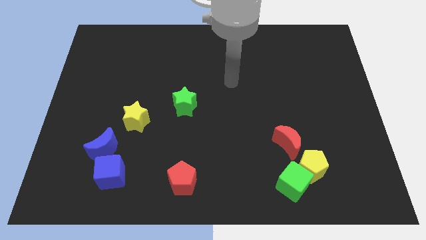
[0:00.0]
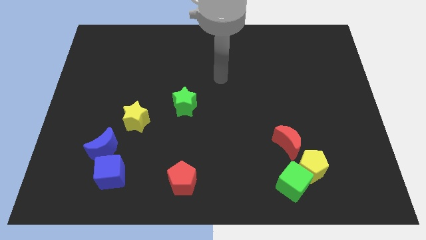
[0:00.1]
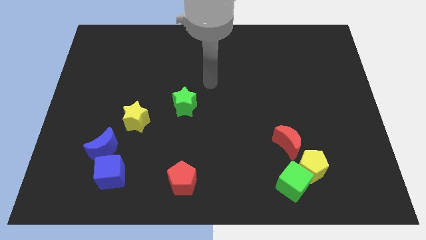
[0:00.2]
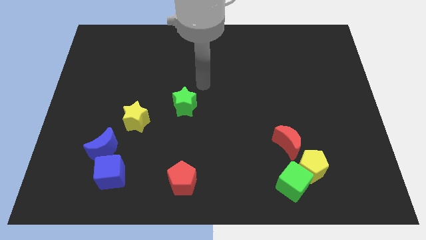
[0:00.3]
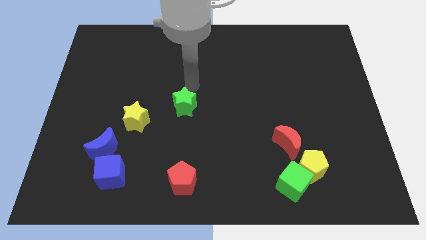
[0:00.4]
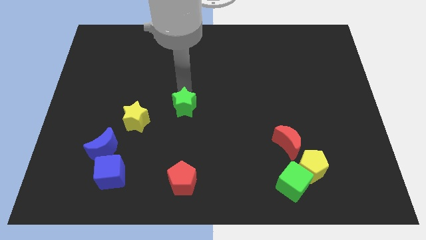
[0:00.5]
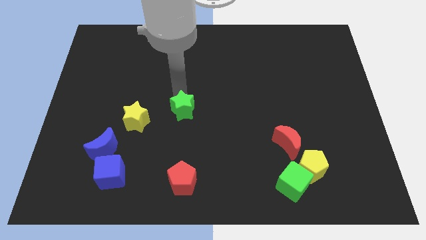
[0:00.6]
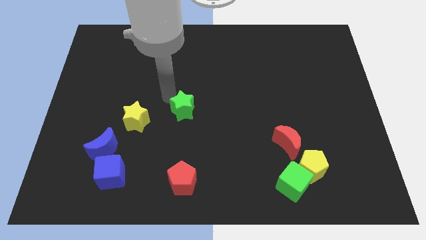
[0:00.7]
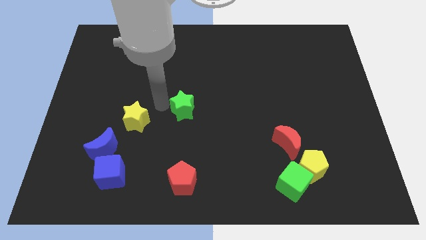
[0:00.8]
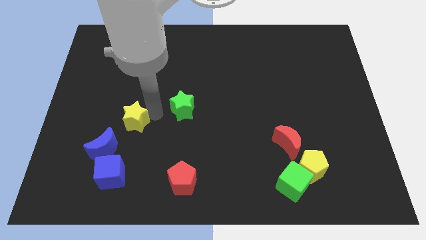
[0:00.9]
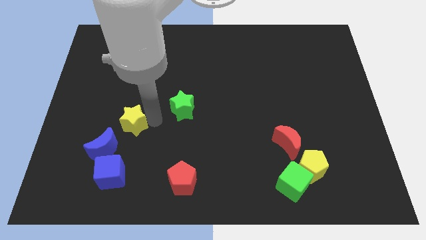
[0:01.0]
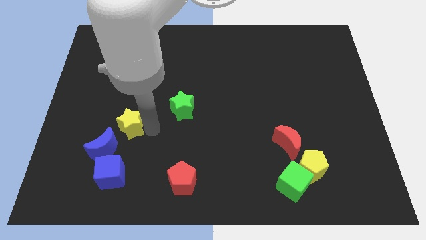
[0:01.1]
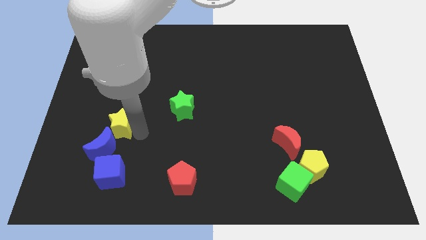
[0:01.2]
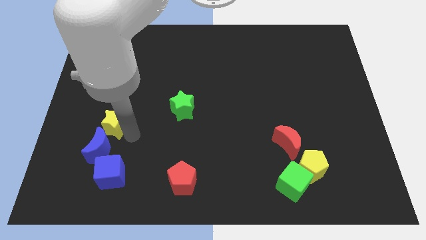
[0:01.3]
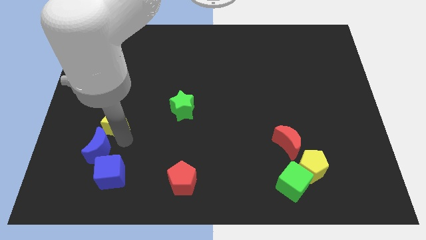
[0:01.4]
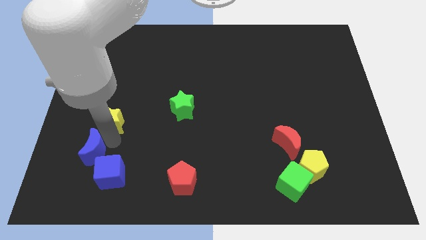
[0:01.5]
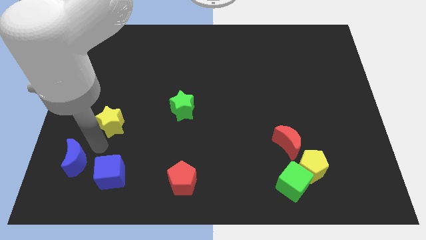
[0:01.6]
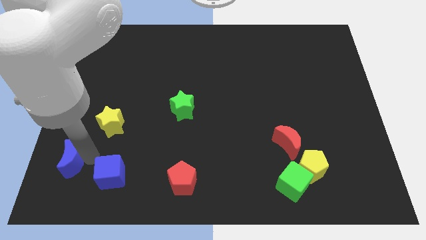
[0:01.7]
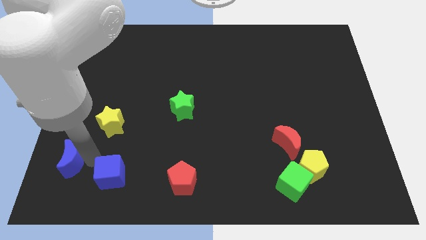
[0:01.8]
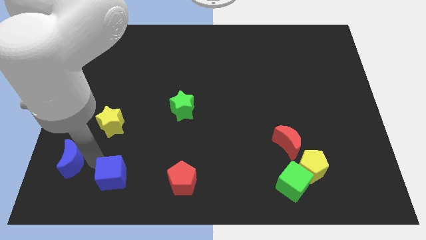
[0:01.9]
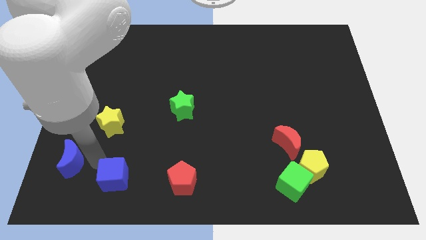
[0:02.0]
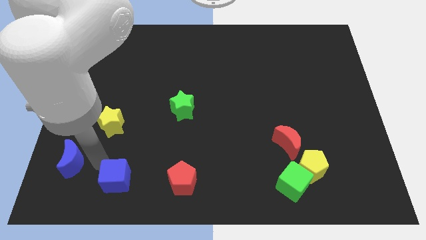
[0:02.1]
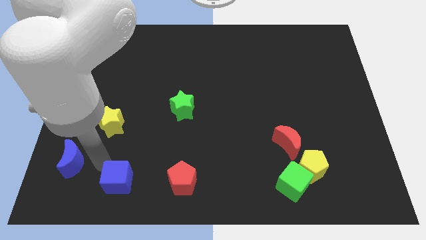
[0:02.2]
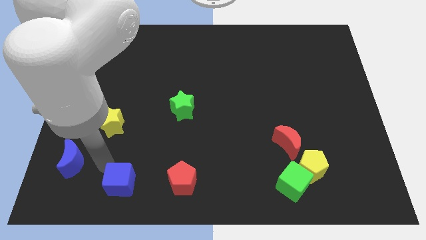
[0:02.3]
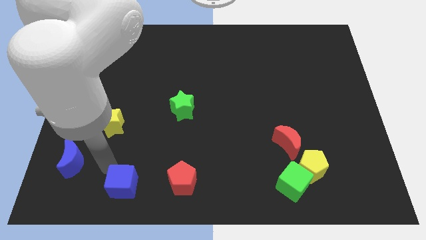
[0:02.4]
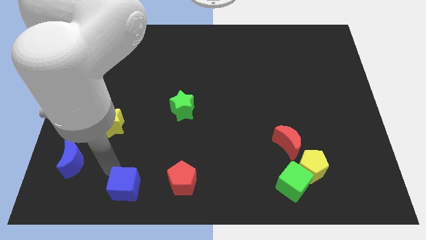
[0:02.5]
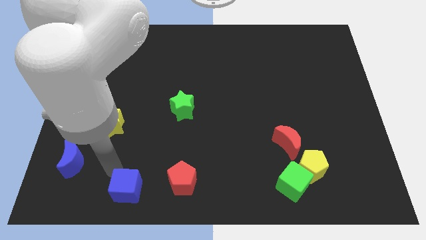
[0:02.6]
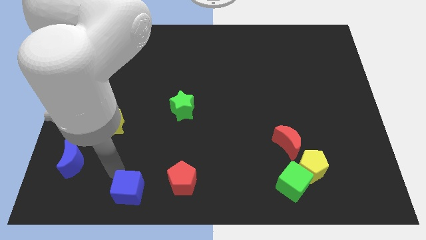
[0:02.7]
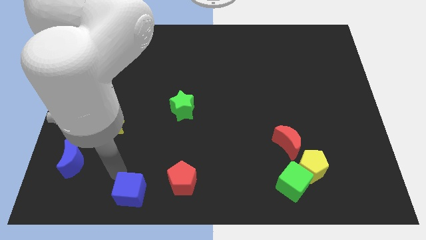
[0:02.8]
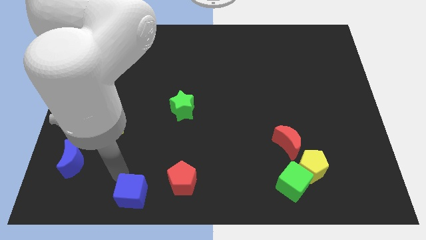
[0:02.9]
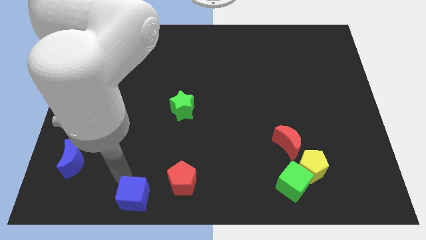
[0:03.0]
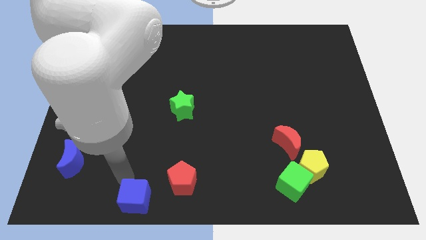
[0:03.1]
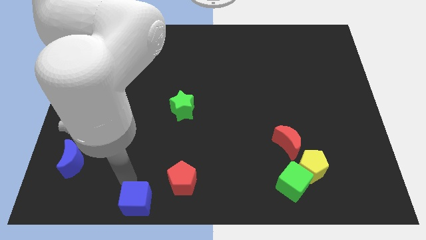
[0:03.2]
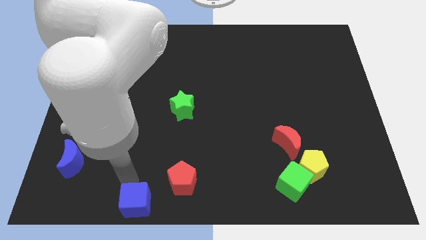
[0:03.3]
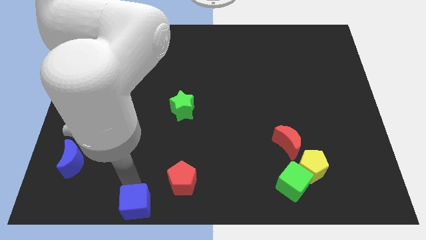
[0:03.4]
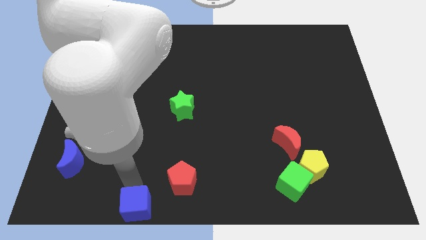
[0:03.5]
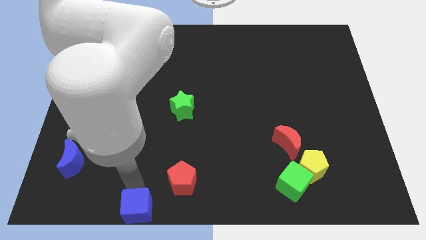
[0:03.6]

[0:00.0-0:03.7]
put the blue cube to the bottom side

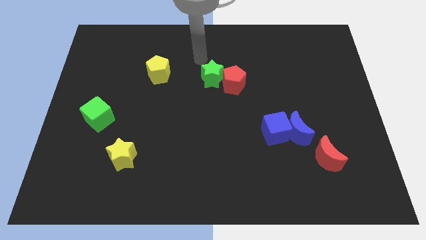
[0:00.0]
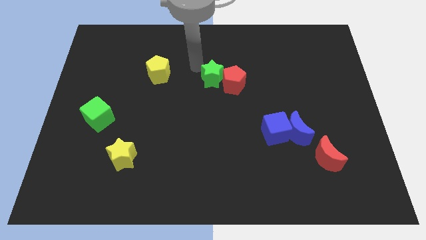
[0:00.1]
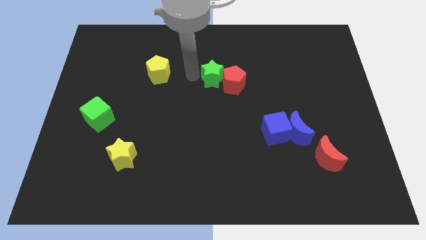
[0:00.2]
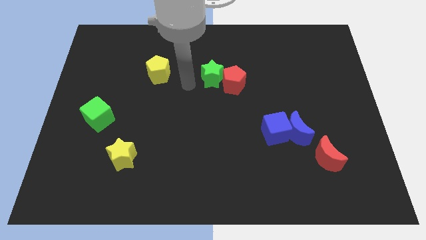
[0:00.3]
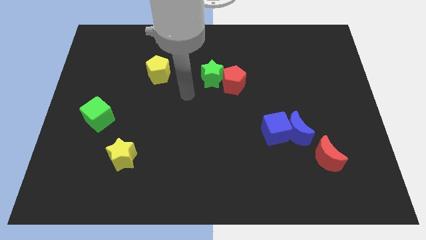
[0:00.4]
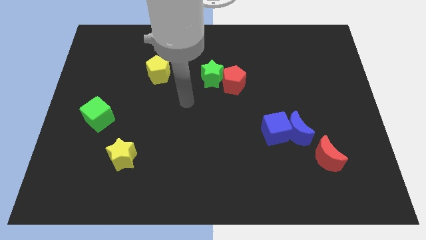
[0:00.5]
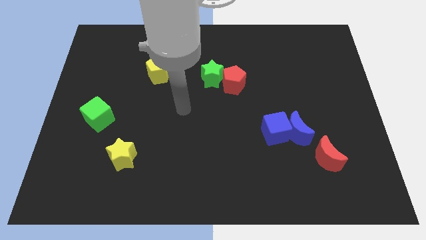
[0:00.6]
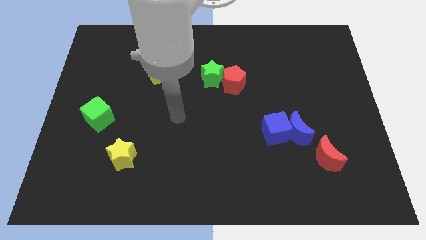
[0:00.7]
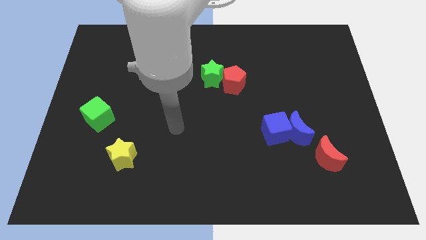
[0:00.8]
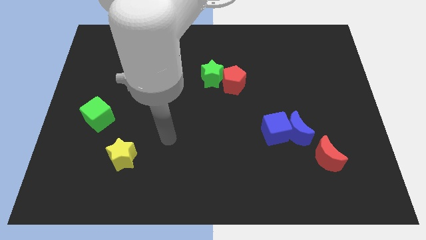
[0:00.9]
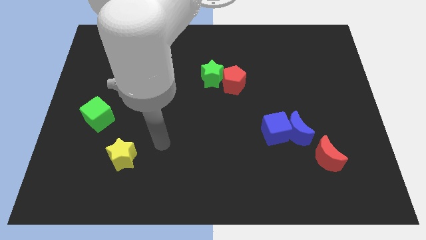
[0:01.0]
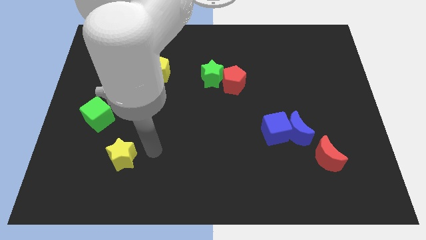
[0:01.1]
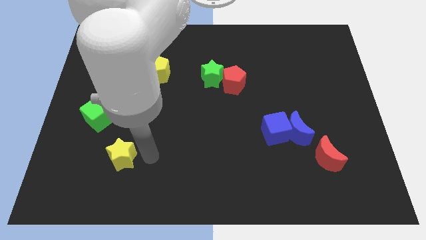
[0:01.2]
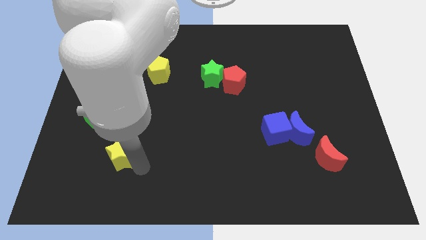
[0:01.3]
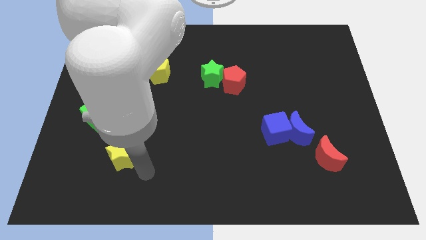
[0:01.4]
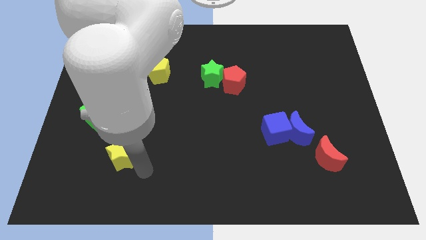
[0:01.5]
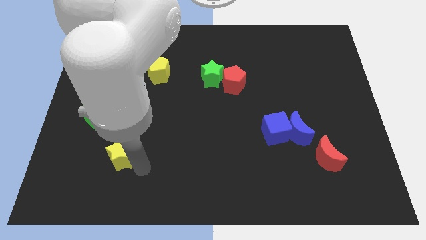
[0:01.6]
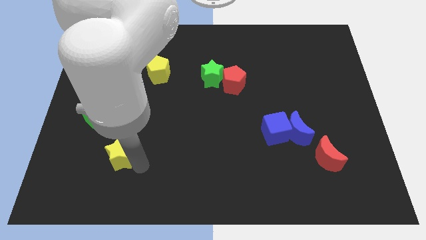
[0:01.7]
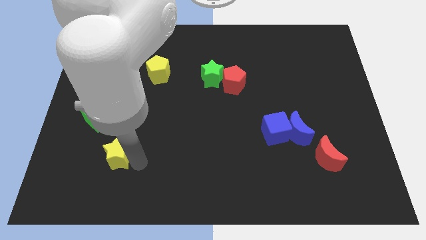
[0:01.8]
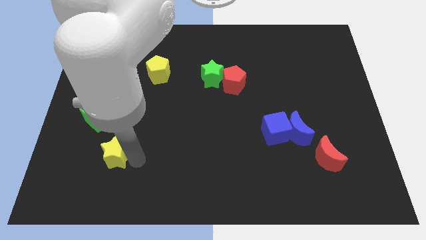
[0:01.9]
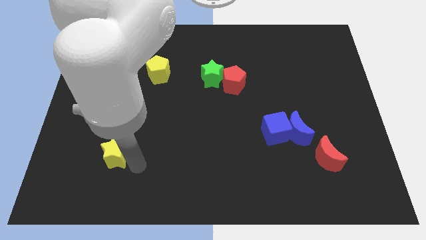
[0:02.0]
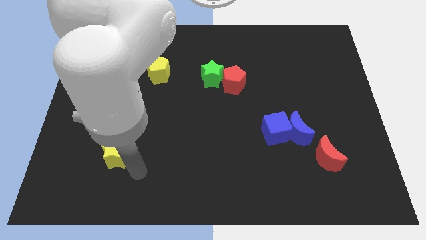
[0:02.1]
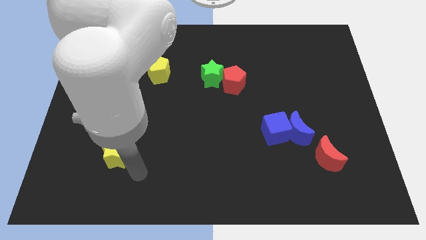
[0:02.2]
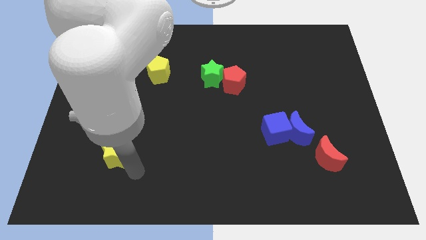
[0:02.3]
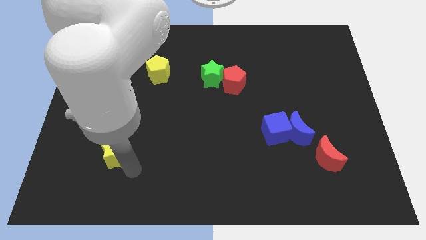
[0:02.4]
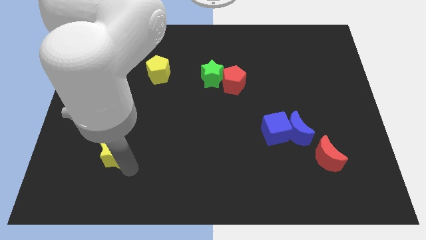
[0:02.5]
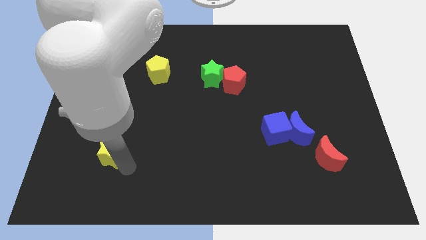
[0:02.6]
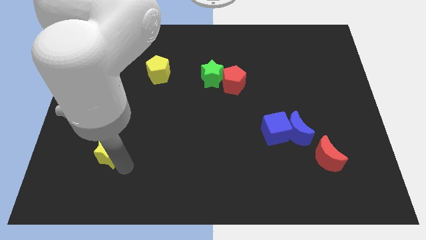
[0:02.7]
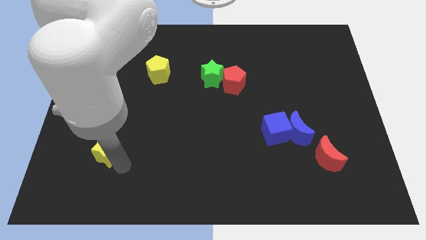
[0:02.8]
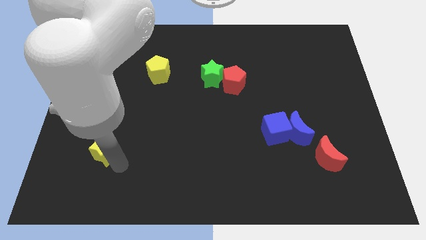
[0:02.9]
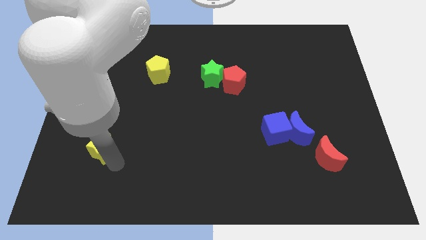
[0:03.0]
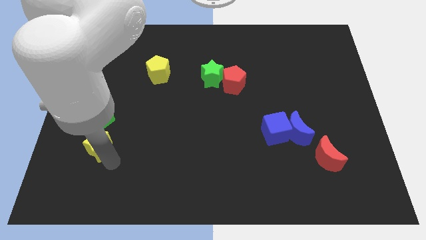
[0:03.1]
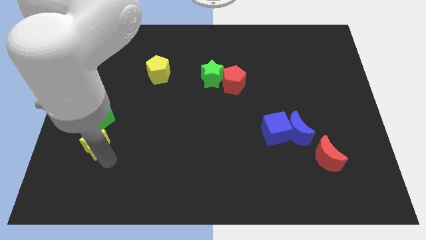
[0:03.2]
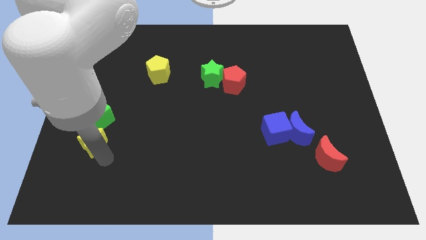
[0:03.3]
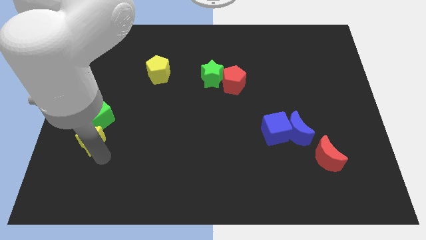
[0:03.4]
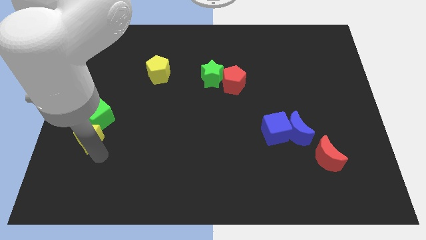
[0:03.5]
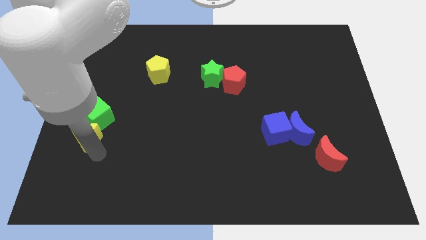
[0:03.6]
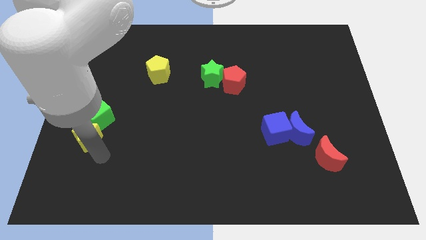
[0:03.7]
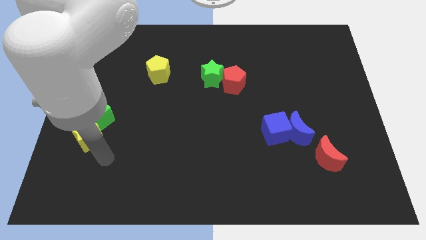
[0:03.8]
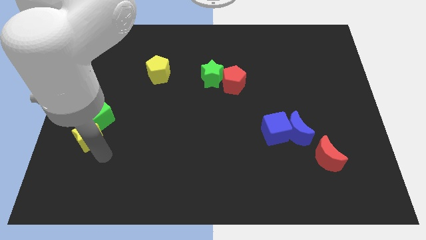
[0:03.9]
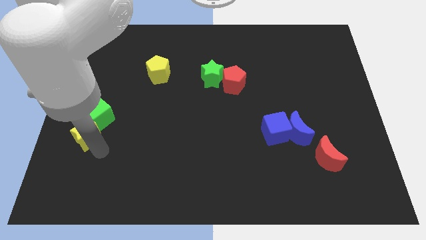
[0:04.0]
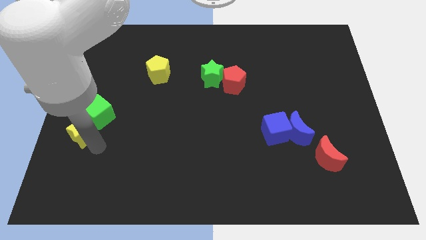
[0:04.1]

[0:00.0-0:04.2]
slide the yellow star to the left side of the board

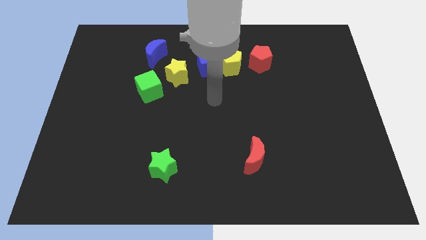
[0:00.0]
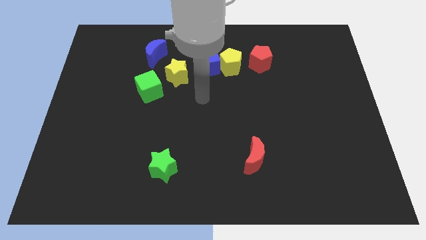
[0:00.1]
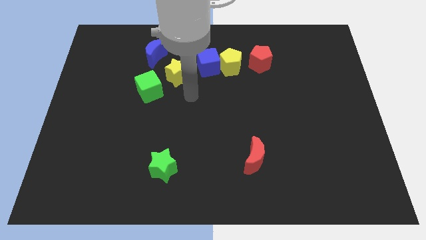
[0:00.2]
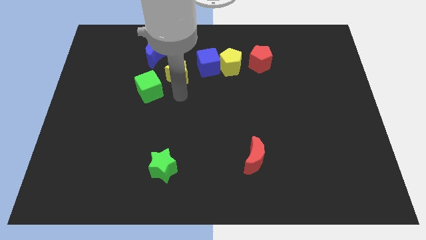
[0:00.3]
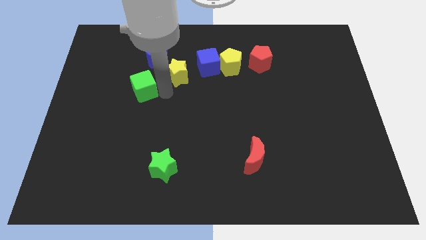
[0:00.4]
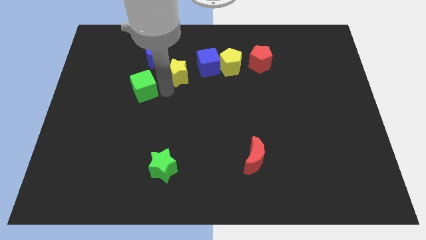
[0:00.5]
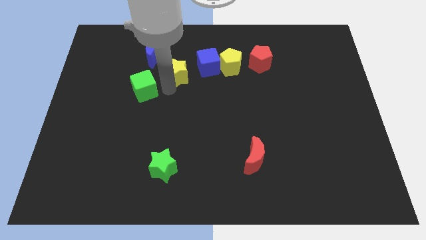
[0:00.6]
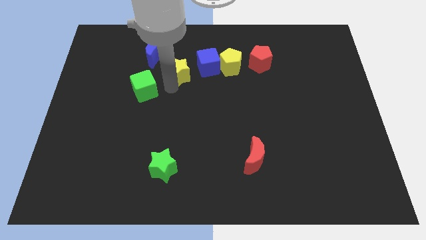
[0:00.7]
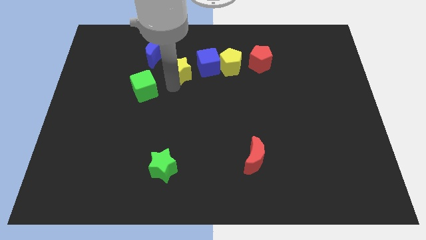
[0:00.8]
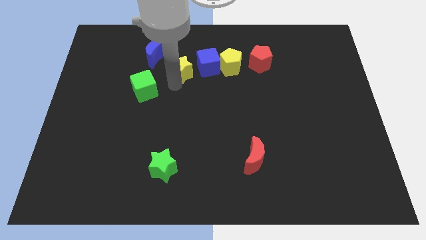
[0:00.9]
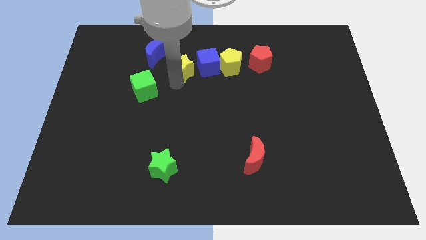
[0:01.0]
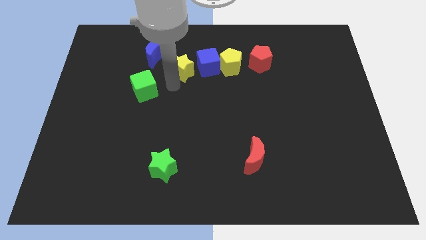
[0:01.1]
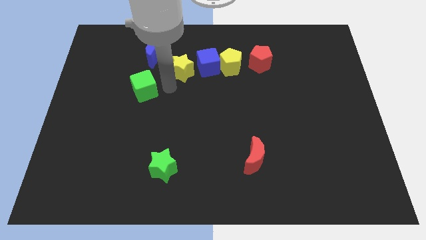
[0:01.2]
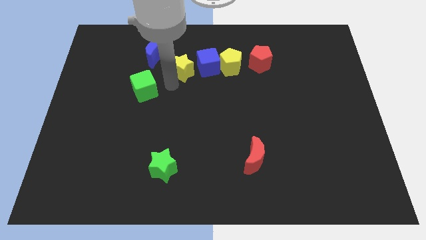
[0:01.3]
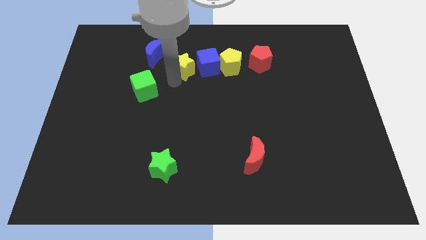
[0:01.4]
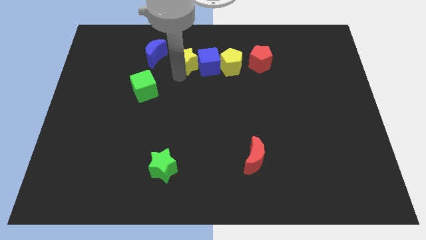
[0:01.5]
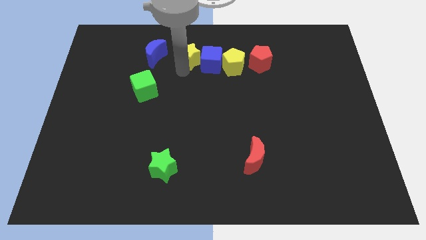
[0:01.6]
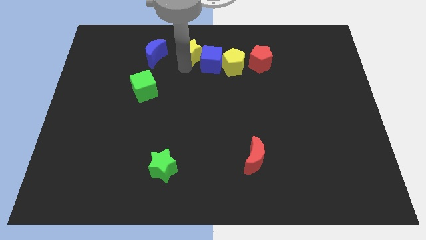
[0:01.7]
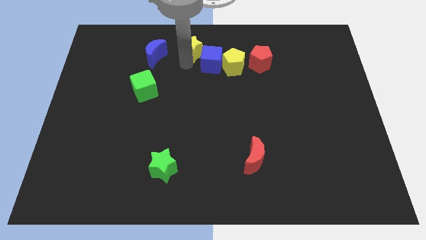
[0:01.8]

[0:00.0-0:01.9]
push the yellow star to the top
